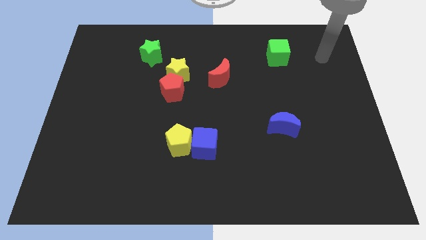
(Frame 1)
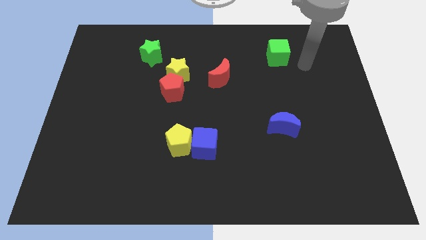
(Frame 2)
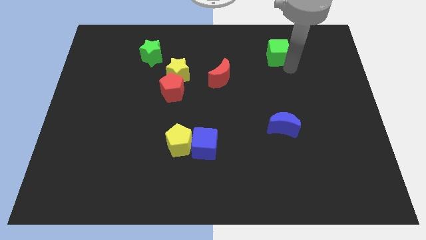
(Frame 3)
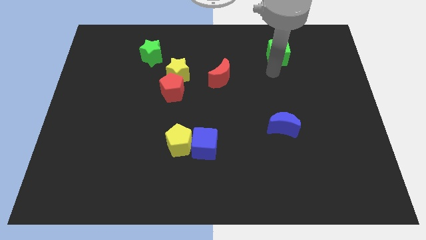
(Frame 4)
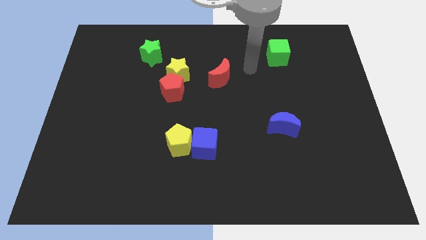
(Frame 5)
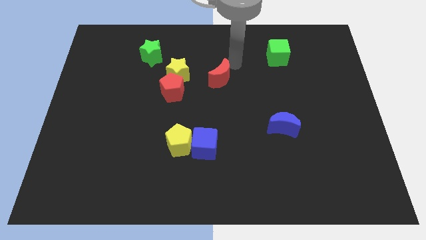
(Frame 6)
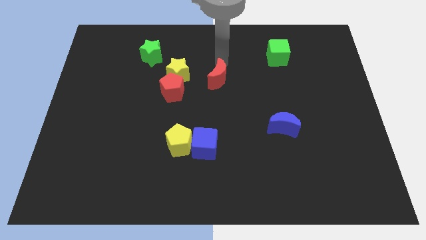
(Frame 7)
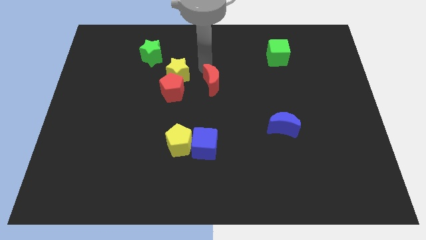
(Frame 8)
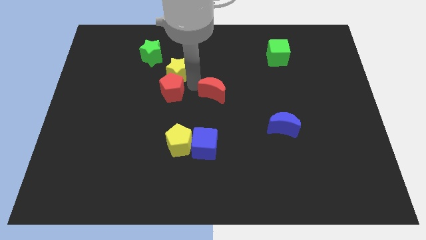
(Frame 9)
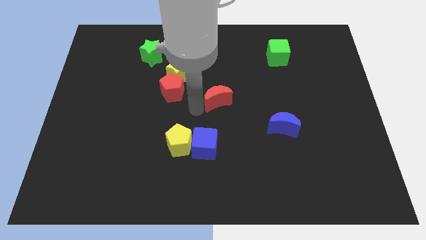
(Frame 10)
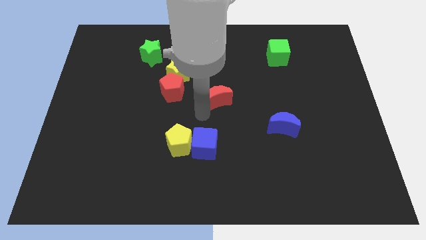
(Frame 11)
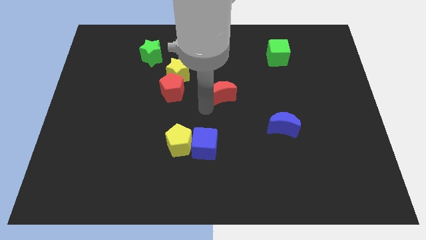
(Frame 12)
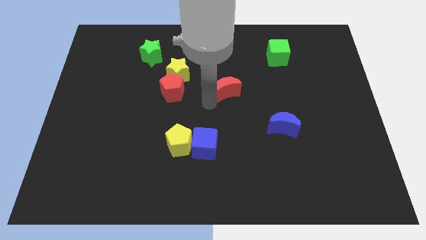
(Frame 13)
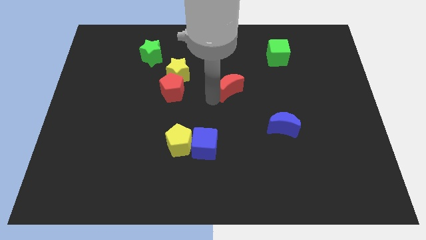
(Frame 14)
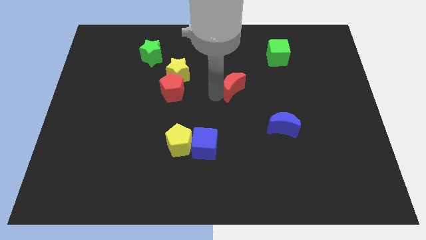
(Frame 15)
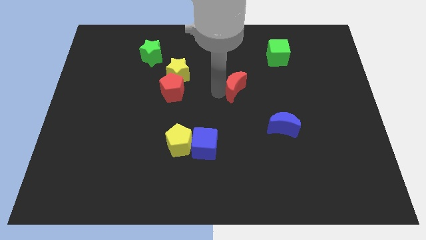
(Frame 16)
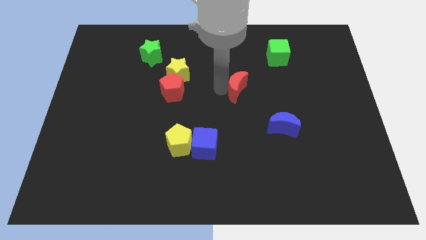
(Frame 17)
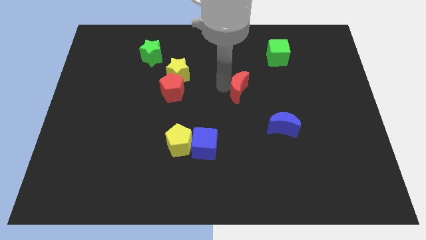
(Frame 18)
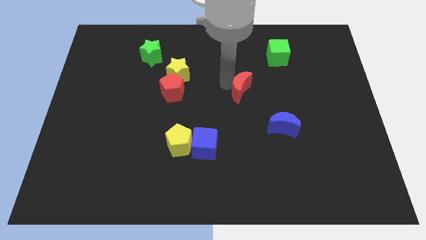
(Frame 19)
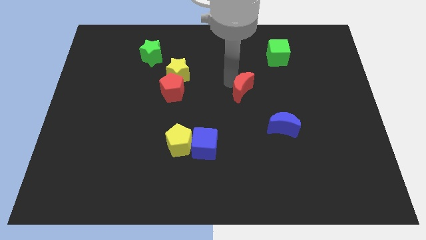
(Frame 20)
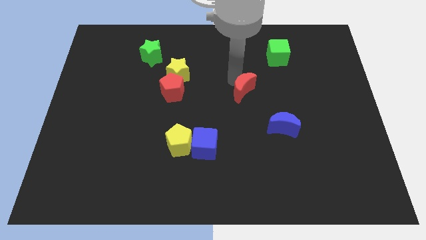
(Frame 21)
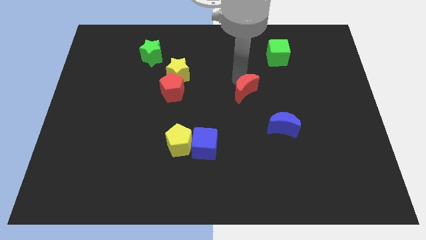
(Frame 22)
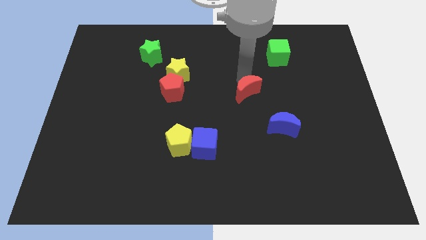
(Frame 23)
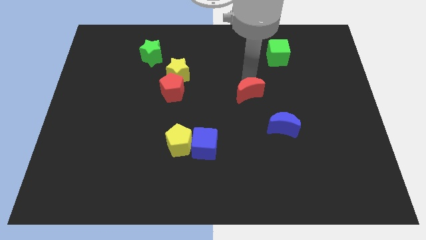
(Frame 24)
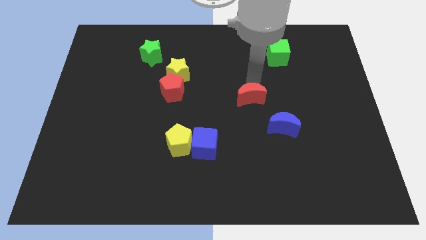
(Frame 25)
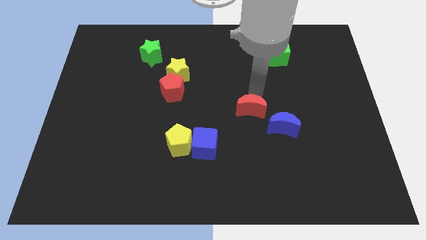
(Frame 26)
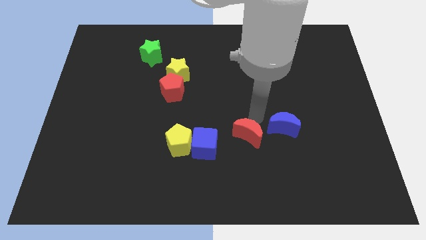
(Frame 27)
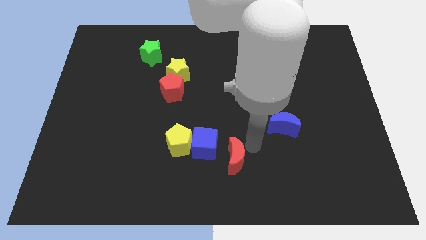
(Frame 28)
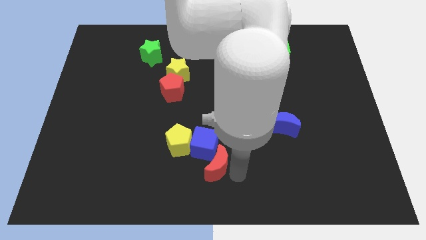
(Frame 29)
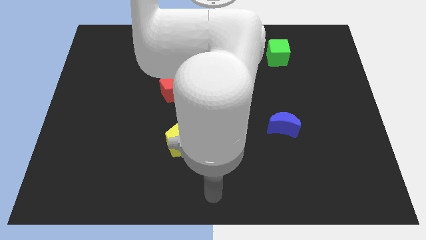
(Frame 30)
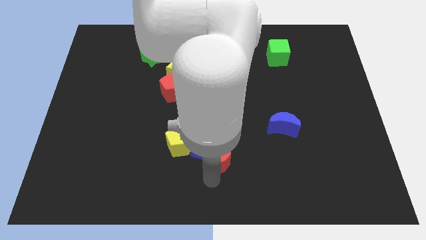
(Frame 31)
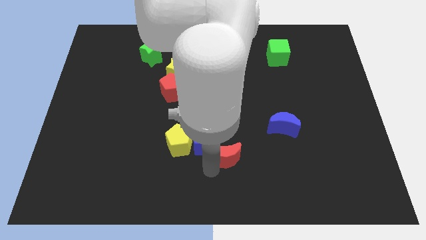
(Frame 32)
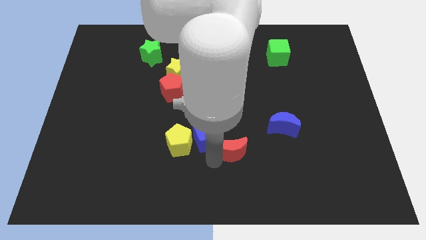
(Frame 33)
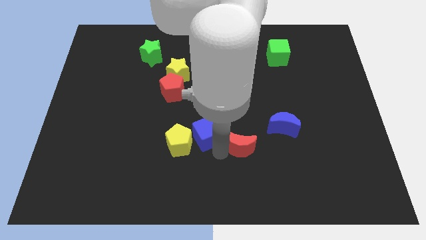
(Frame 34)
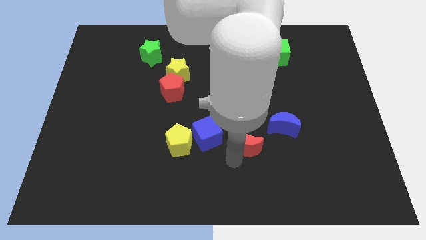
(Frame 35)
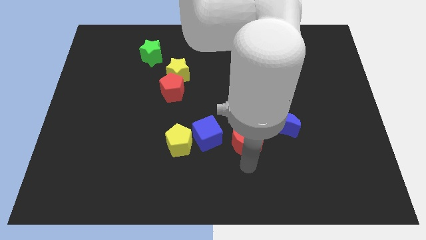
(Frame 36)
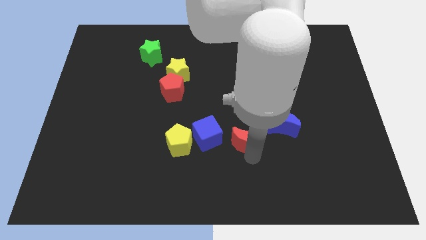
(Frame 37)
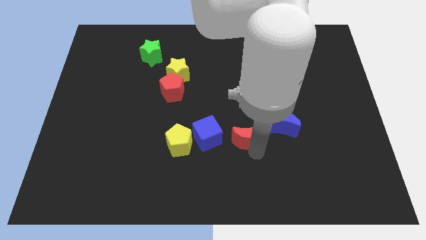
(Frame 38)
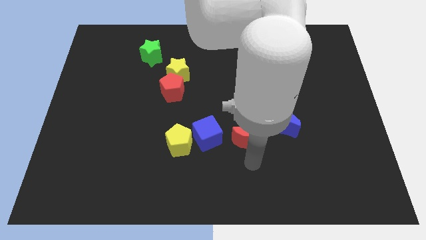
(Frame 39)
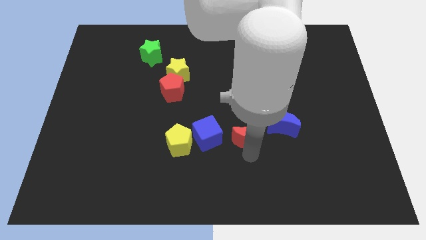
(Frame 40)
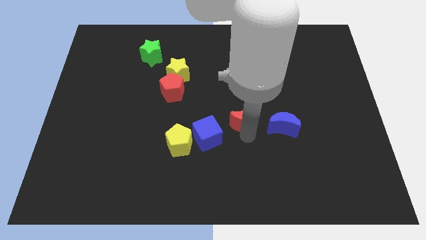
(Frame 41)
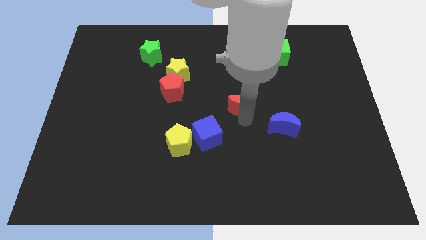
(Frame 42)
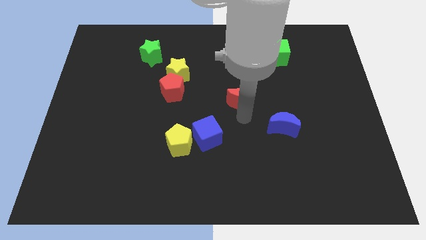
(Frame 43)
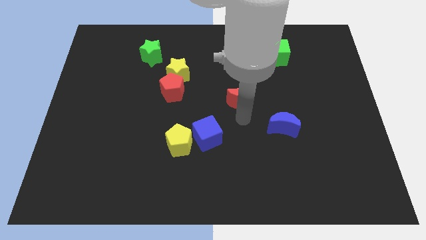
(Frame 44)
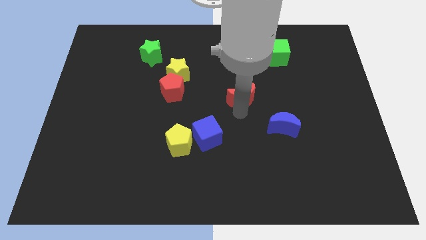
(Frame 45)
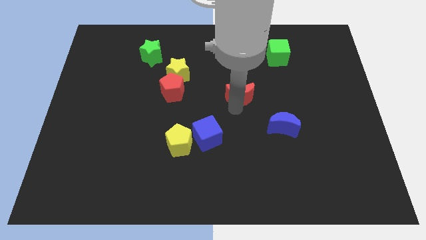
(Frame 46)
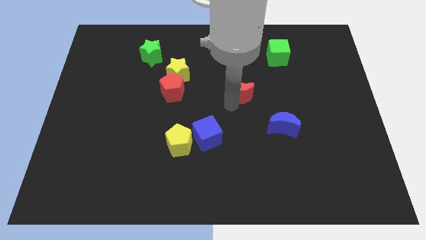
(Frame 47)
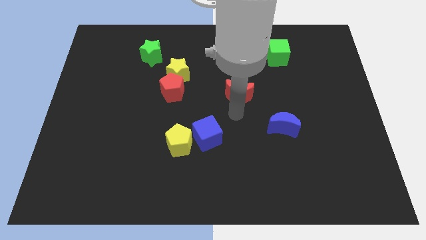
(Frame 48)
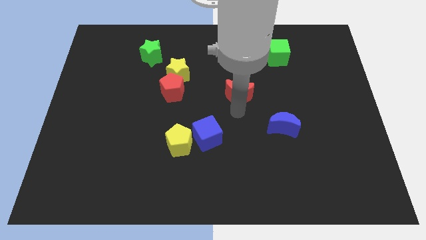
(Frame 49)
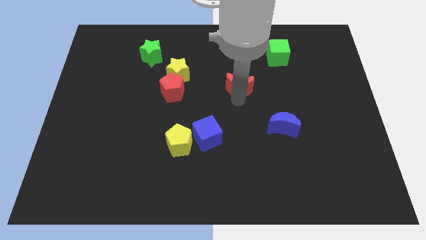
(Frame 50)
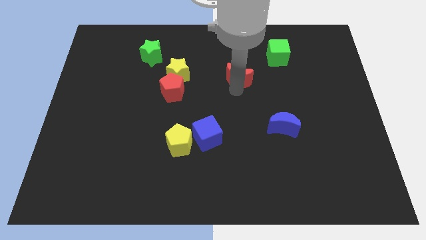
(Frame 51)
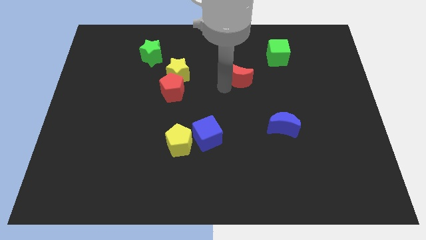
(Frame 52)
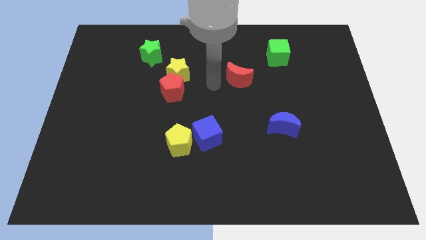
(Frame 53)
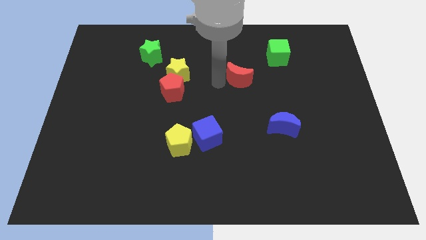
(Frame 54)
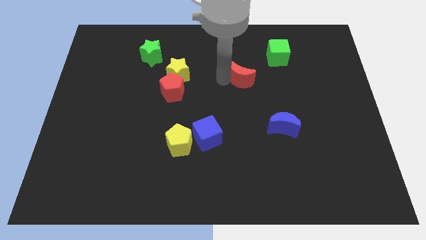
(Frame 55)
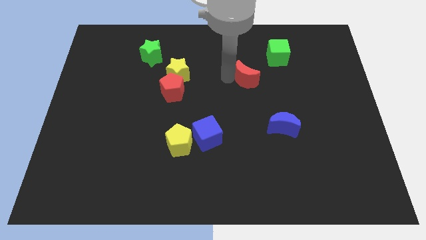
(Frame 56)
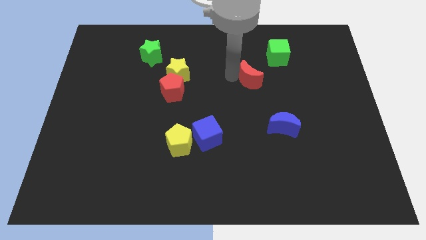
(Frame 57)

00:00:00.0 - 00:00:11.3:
push the red moon right a little bit

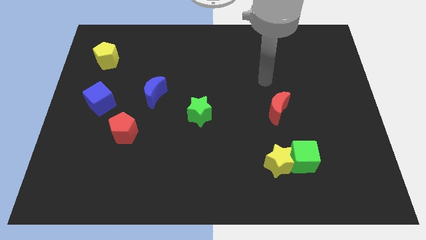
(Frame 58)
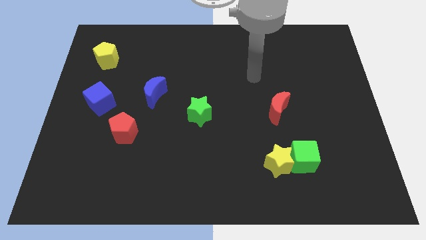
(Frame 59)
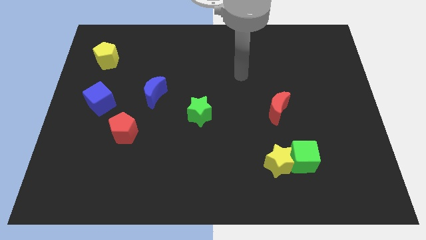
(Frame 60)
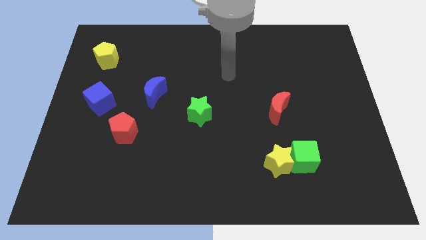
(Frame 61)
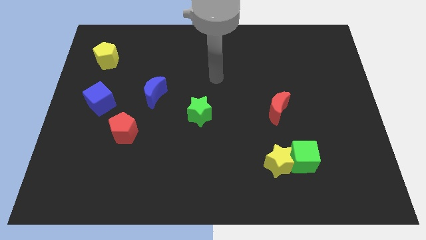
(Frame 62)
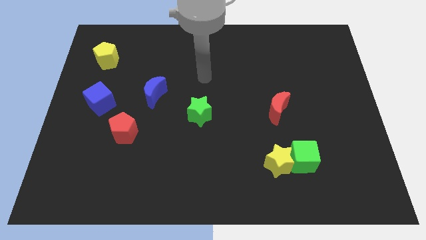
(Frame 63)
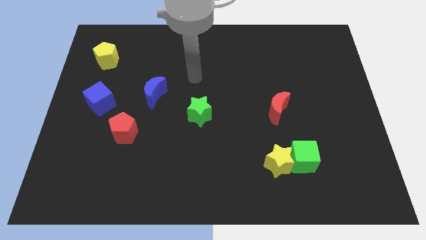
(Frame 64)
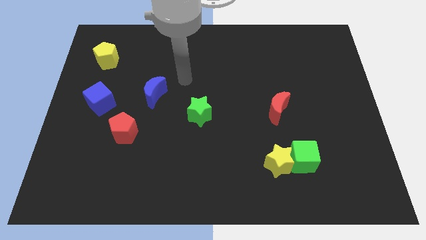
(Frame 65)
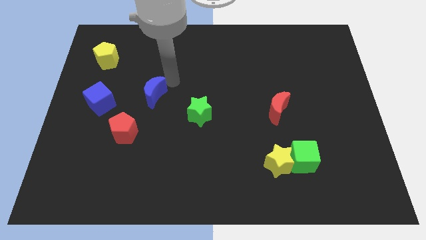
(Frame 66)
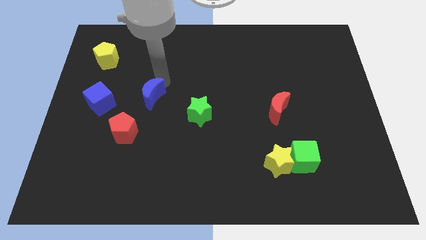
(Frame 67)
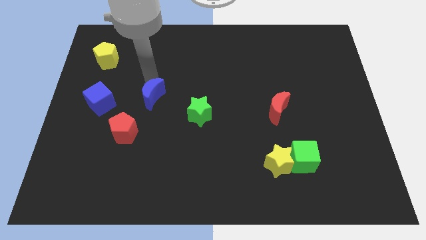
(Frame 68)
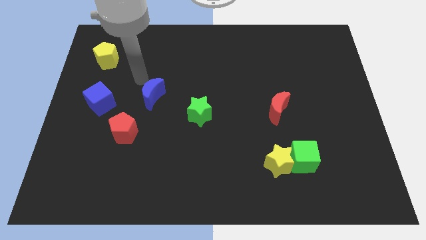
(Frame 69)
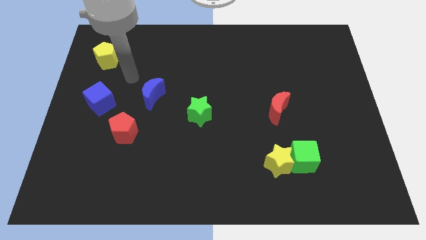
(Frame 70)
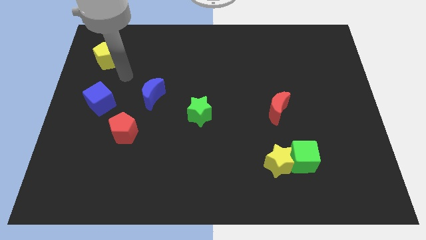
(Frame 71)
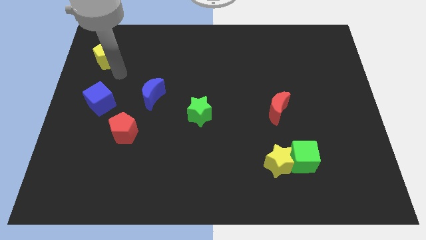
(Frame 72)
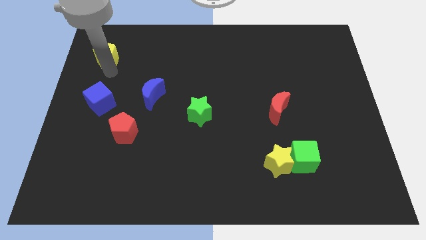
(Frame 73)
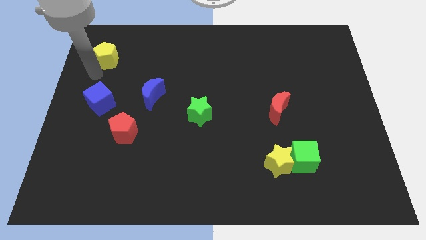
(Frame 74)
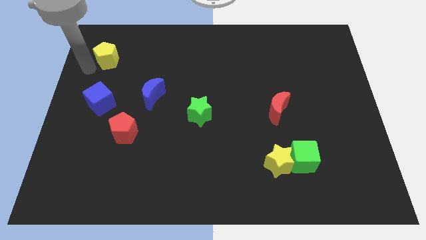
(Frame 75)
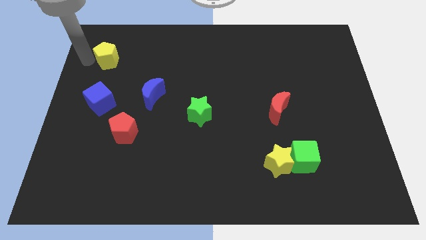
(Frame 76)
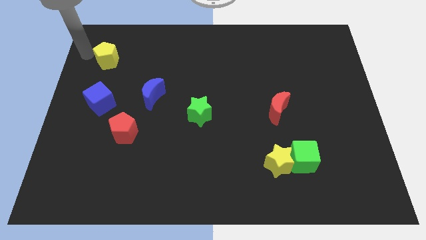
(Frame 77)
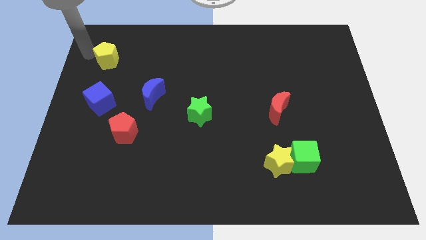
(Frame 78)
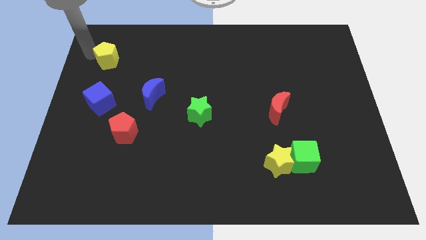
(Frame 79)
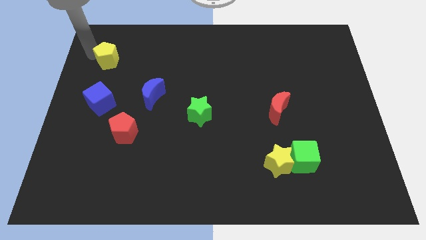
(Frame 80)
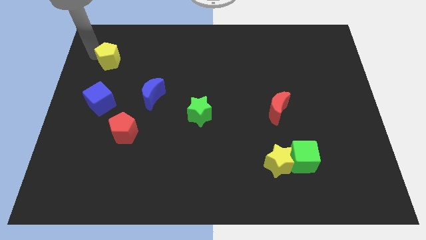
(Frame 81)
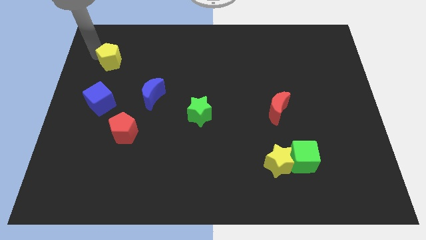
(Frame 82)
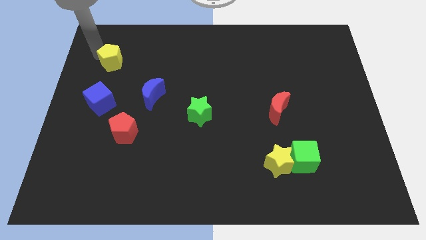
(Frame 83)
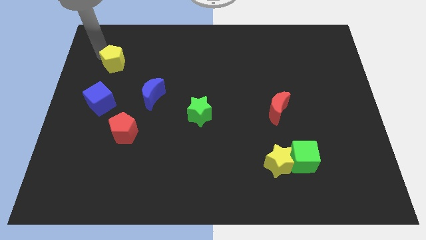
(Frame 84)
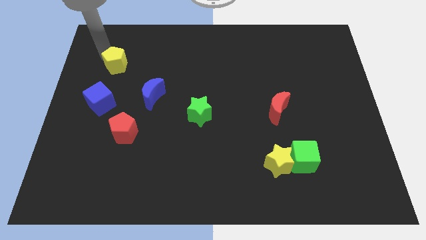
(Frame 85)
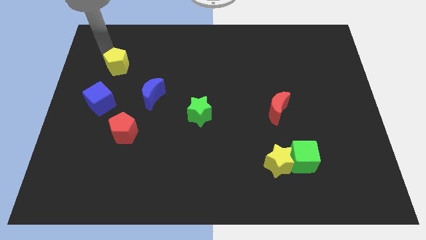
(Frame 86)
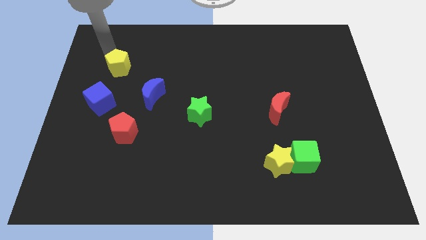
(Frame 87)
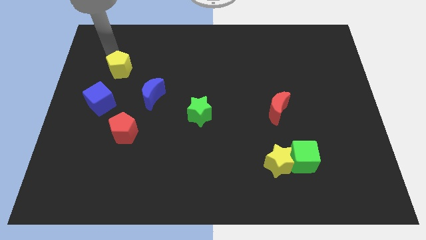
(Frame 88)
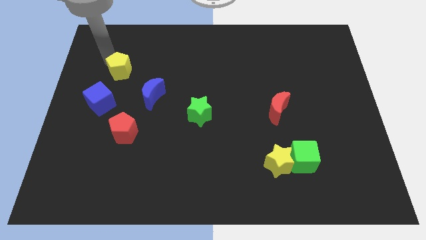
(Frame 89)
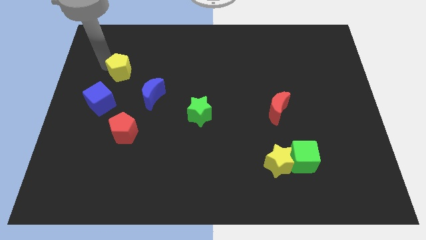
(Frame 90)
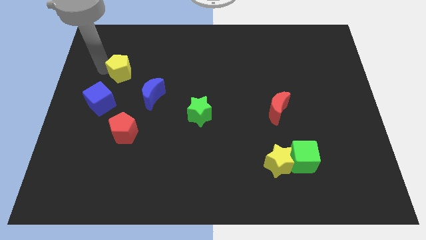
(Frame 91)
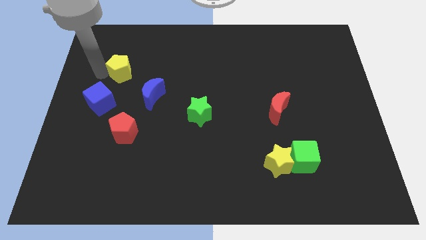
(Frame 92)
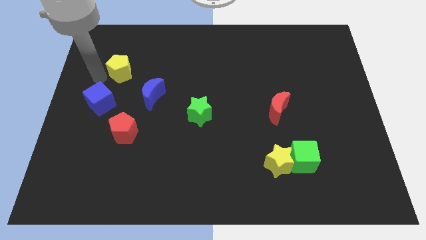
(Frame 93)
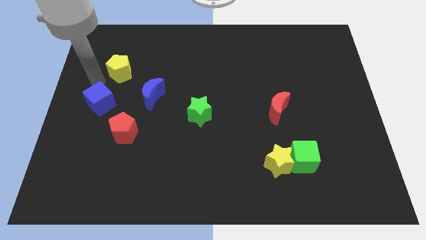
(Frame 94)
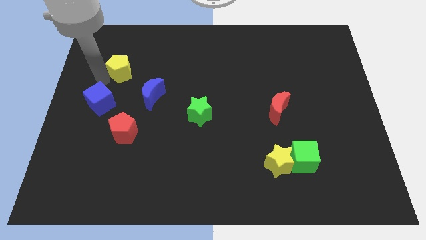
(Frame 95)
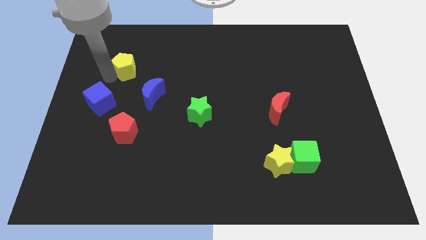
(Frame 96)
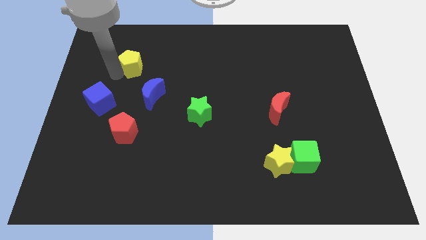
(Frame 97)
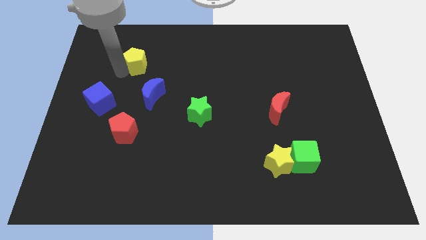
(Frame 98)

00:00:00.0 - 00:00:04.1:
push the yellow pentagon slightly right
